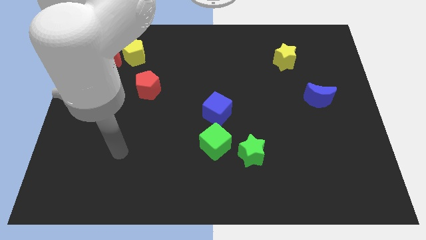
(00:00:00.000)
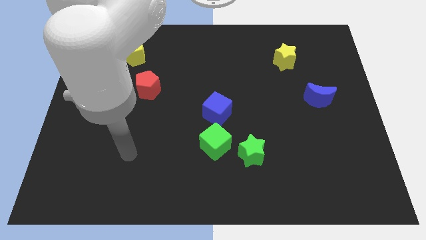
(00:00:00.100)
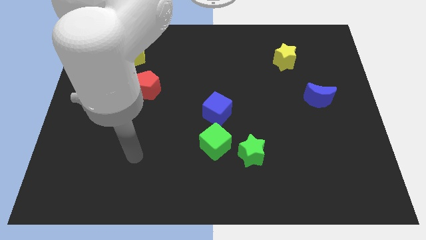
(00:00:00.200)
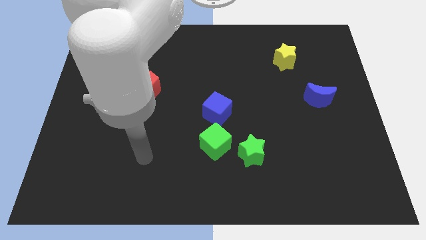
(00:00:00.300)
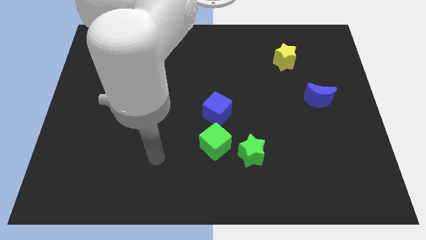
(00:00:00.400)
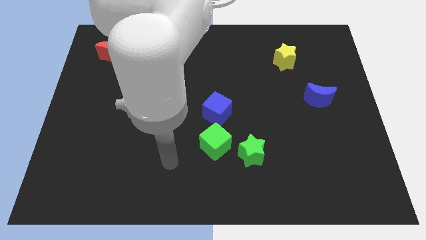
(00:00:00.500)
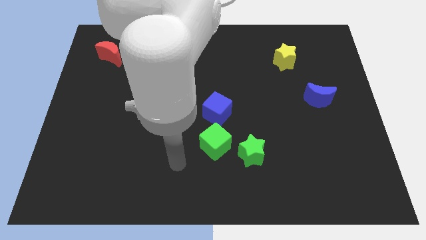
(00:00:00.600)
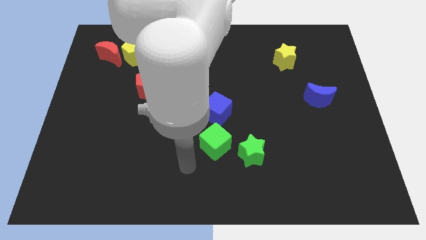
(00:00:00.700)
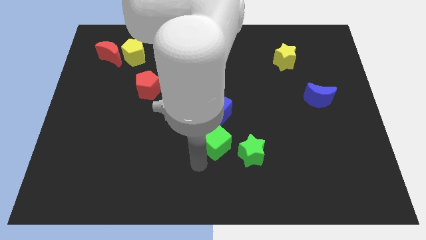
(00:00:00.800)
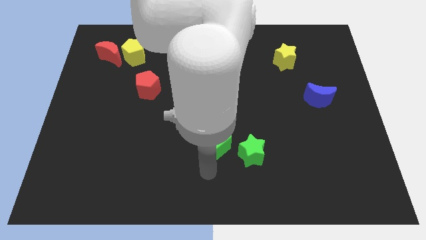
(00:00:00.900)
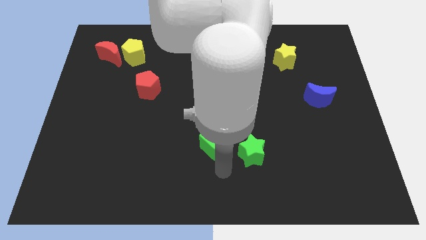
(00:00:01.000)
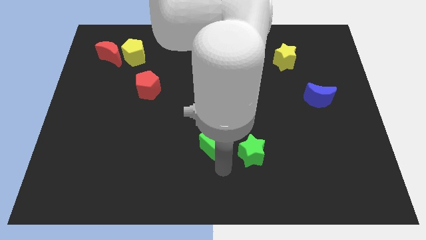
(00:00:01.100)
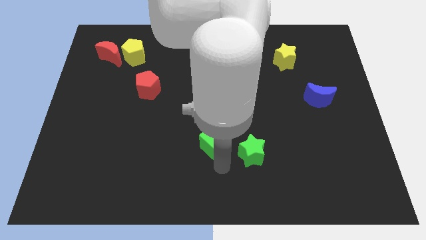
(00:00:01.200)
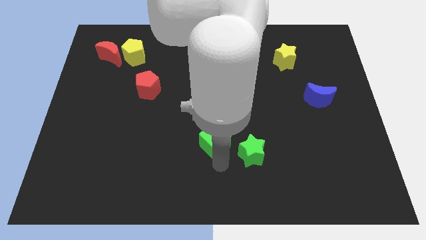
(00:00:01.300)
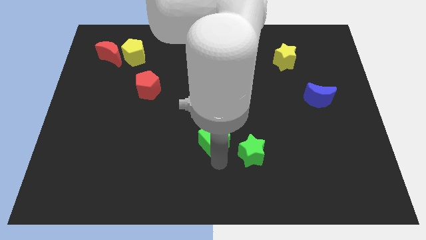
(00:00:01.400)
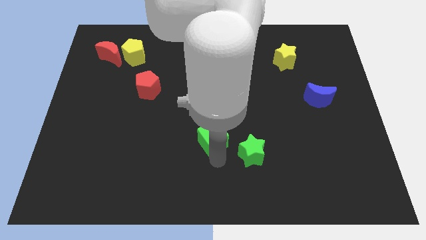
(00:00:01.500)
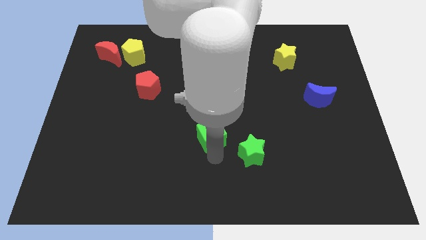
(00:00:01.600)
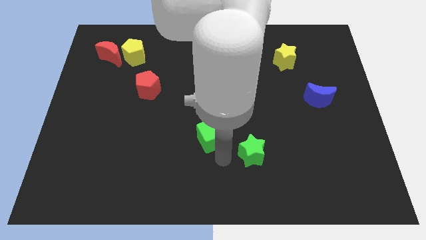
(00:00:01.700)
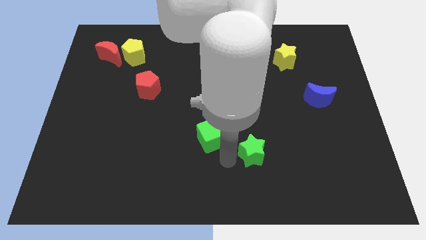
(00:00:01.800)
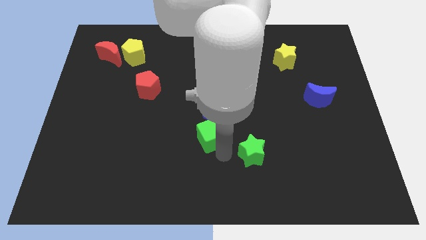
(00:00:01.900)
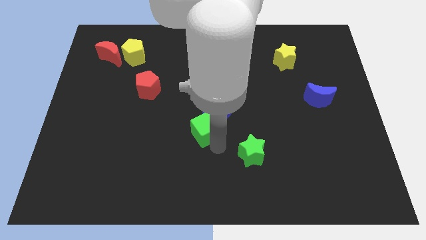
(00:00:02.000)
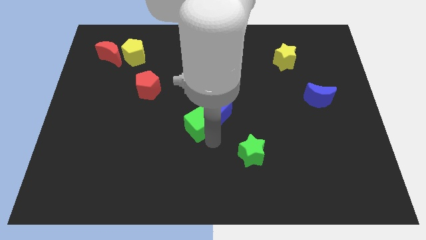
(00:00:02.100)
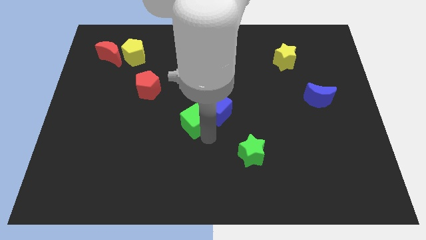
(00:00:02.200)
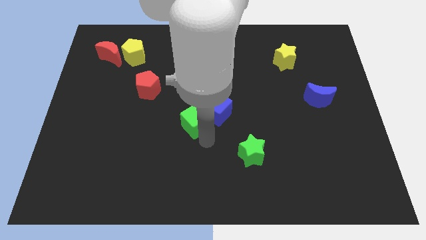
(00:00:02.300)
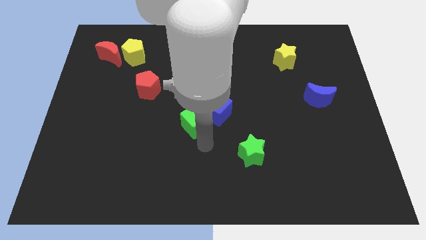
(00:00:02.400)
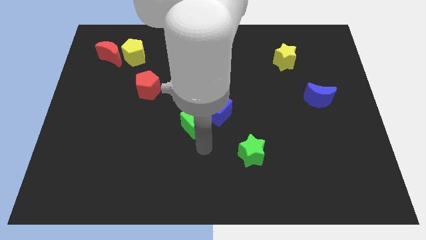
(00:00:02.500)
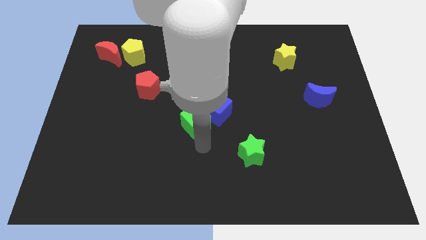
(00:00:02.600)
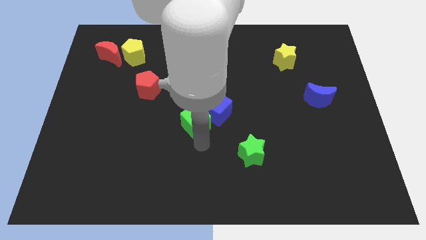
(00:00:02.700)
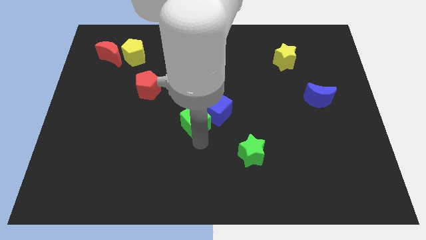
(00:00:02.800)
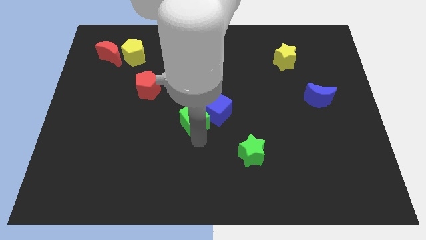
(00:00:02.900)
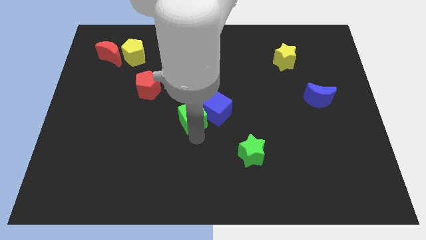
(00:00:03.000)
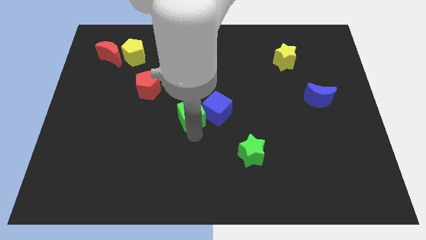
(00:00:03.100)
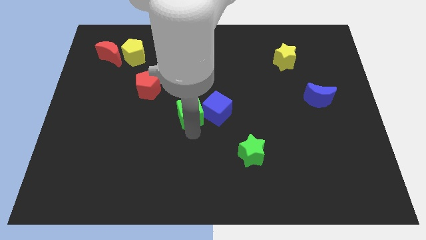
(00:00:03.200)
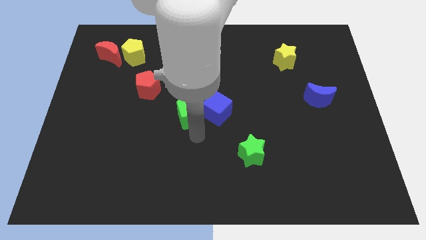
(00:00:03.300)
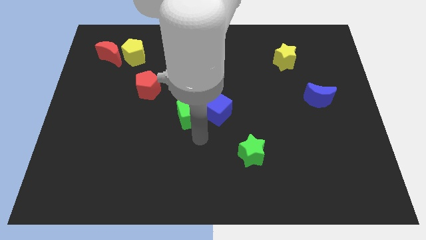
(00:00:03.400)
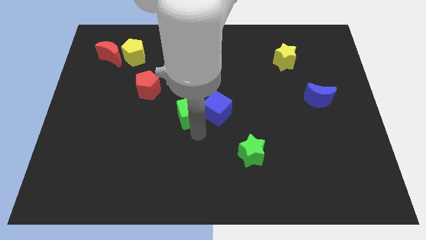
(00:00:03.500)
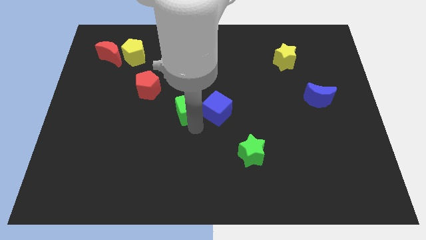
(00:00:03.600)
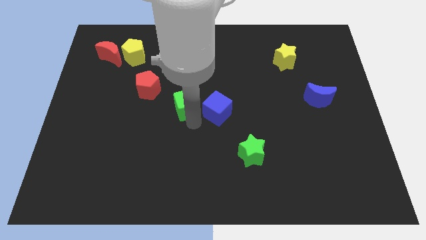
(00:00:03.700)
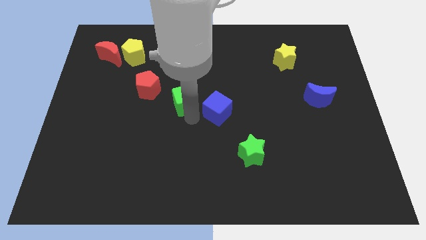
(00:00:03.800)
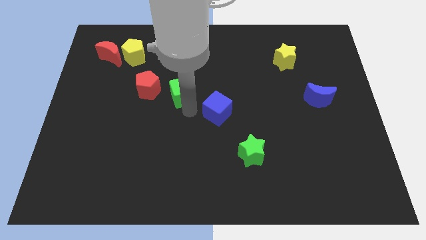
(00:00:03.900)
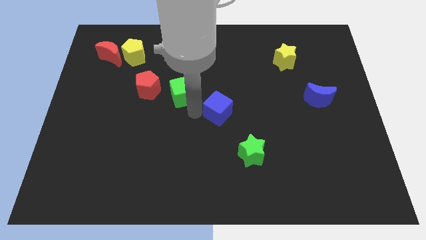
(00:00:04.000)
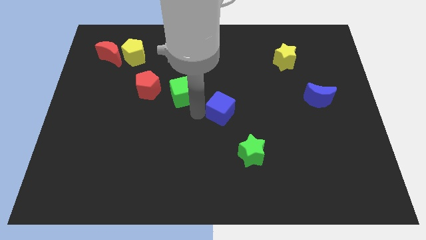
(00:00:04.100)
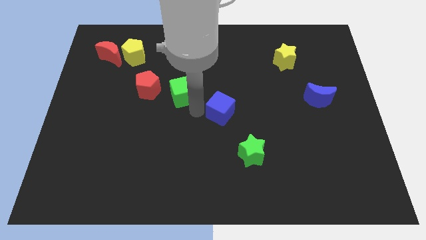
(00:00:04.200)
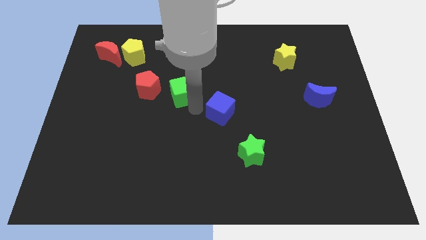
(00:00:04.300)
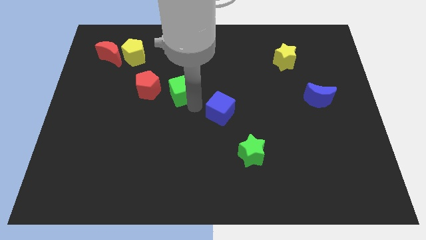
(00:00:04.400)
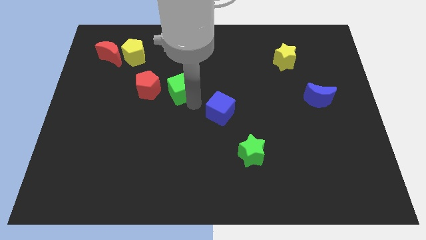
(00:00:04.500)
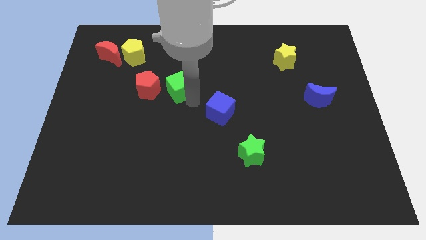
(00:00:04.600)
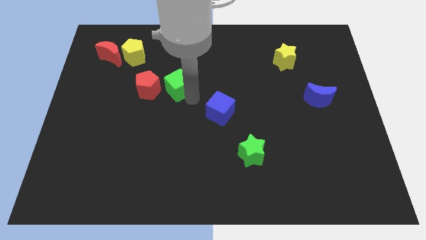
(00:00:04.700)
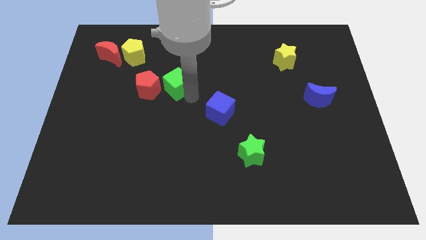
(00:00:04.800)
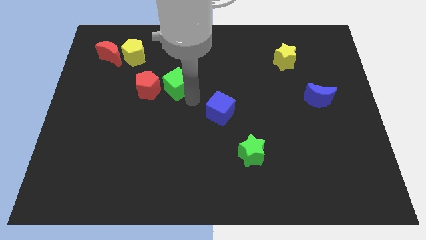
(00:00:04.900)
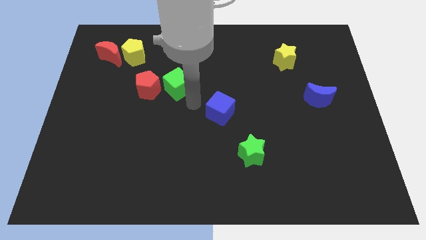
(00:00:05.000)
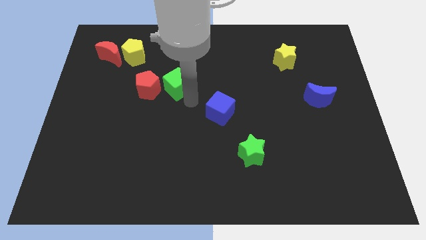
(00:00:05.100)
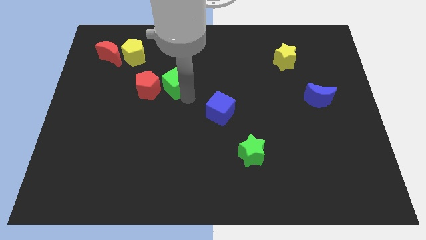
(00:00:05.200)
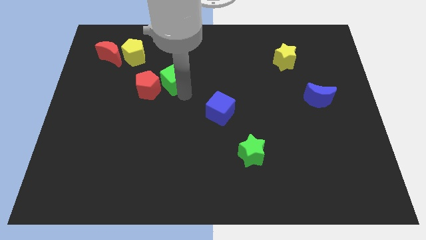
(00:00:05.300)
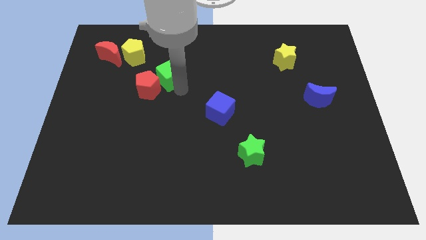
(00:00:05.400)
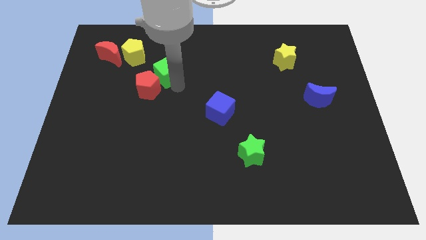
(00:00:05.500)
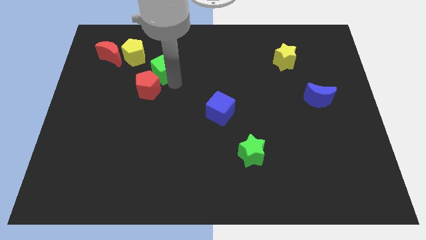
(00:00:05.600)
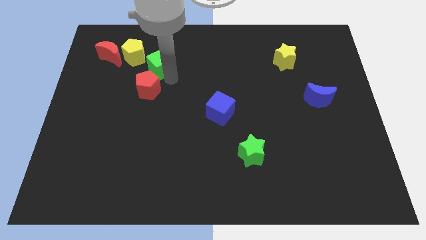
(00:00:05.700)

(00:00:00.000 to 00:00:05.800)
move the green cube to the right side of the red moon
